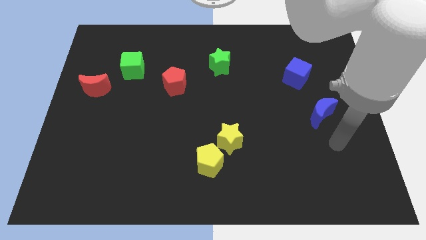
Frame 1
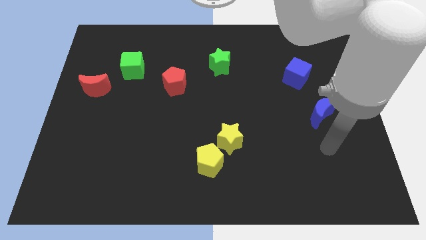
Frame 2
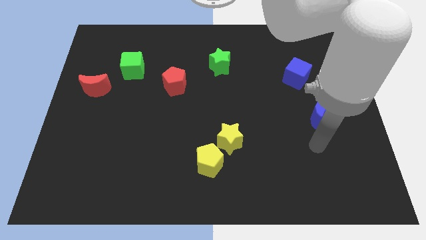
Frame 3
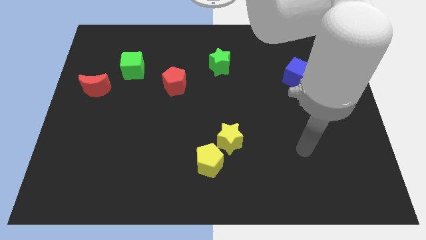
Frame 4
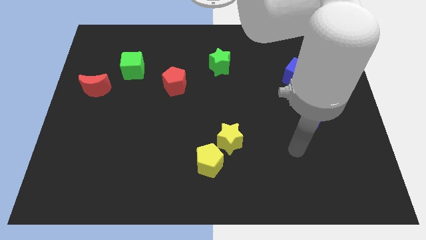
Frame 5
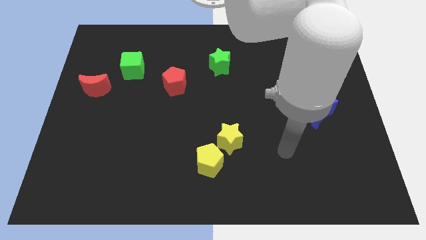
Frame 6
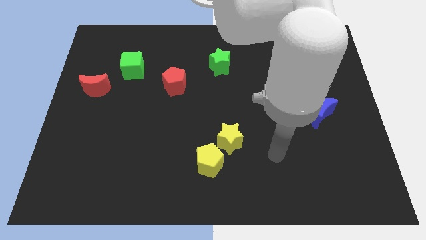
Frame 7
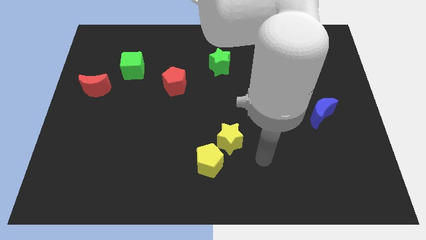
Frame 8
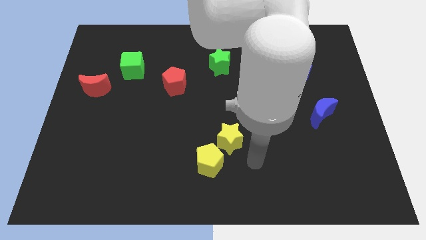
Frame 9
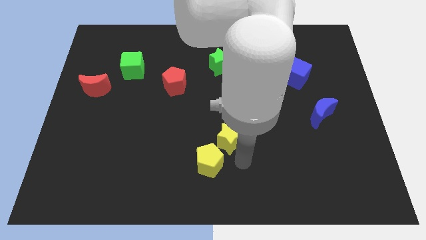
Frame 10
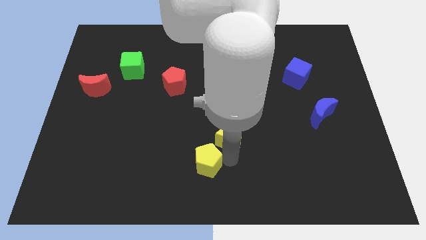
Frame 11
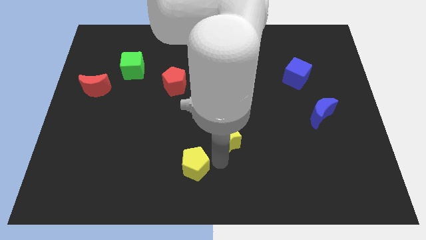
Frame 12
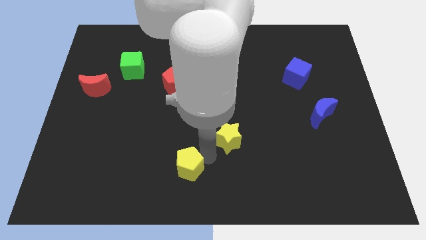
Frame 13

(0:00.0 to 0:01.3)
pull the yellow star apart from the yellow pentagon

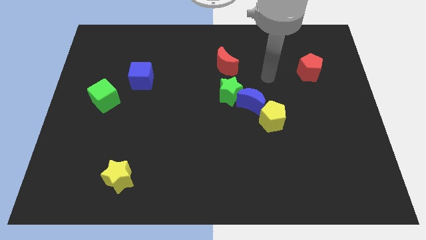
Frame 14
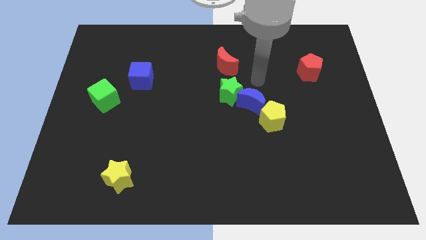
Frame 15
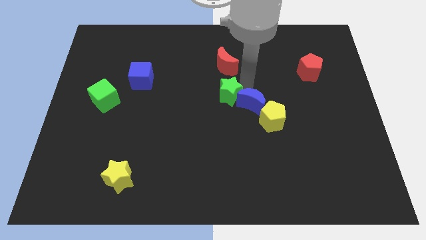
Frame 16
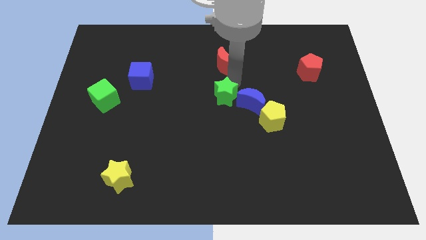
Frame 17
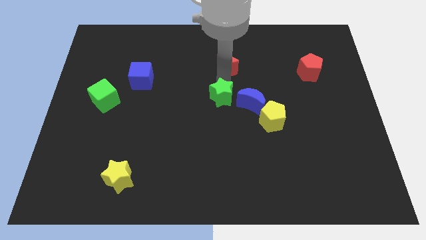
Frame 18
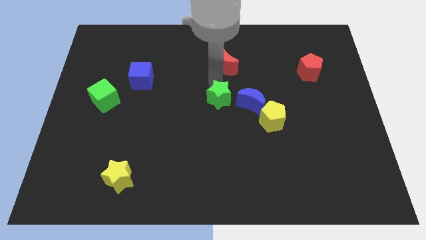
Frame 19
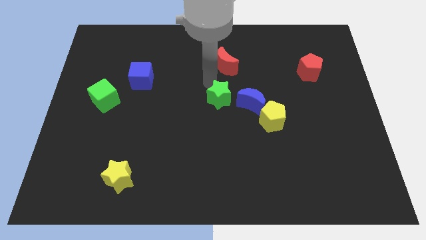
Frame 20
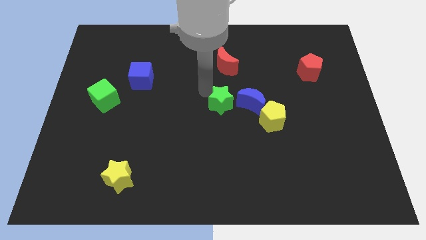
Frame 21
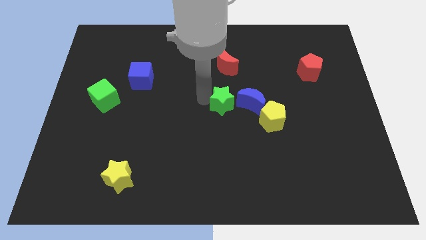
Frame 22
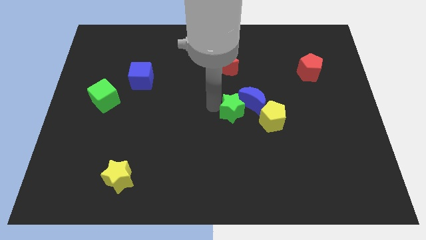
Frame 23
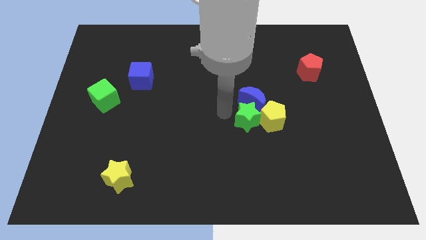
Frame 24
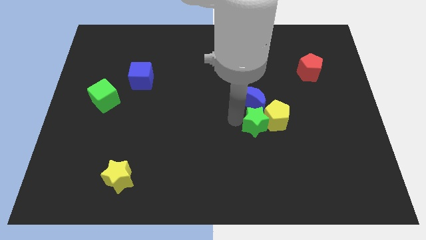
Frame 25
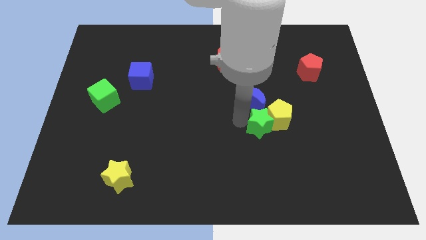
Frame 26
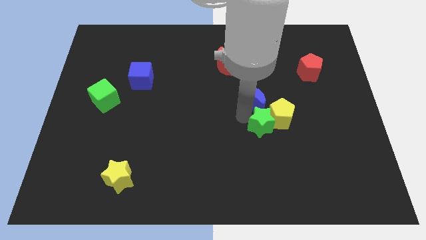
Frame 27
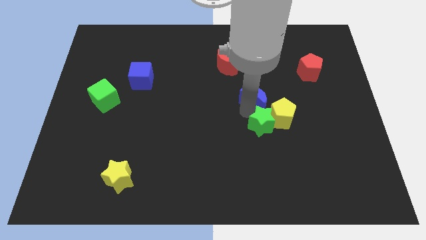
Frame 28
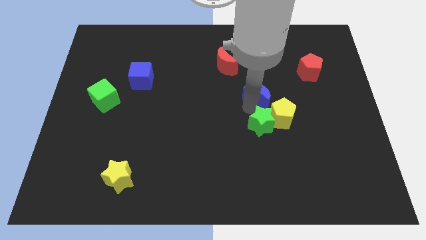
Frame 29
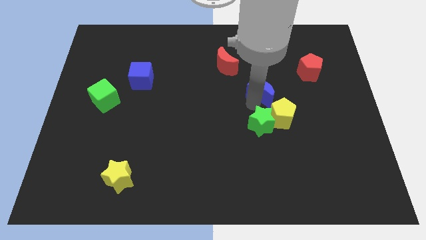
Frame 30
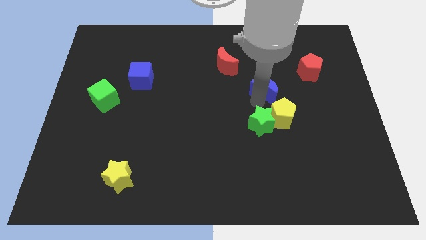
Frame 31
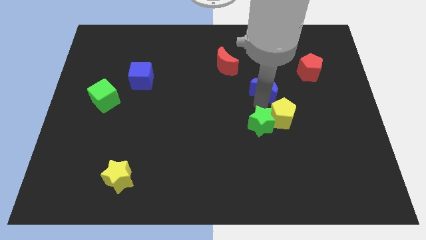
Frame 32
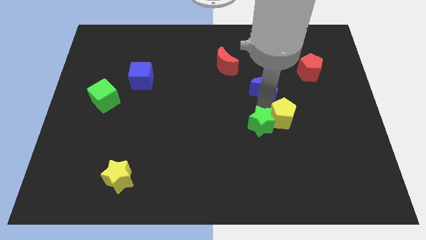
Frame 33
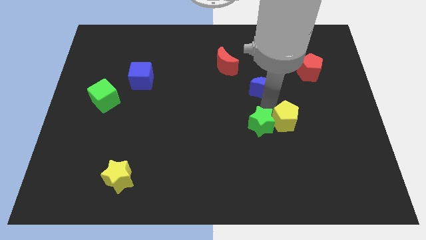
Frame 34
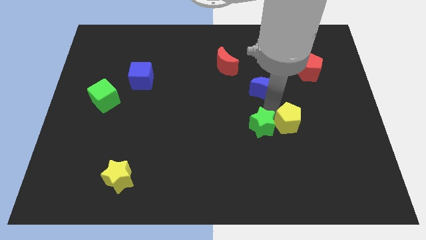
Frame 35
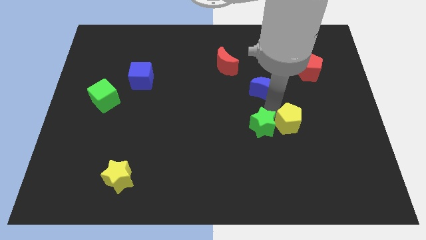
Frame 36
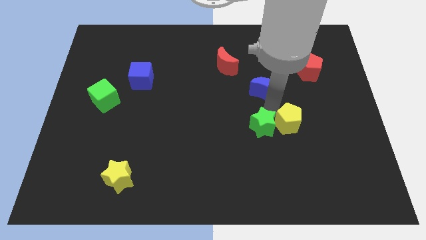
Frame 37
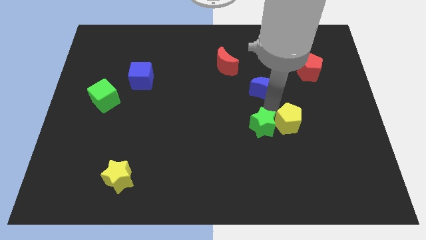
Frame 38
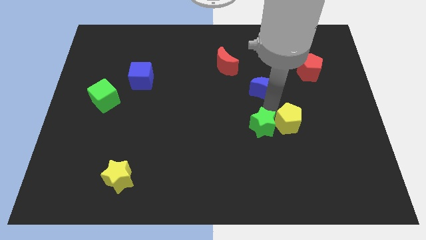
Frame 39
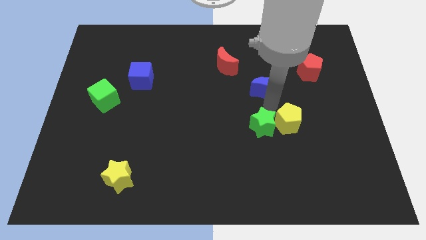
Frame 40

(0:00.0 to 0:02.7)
move the blue moon away from the green star and yellow pentagon

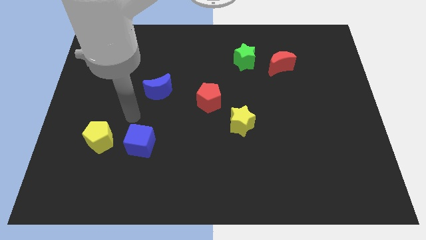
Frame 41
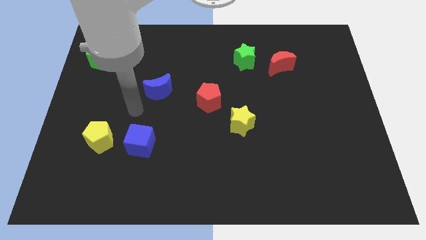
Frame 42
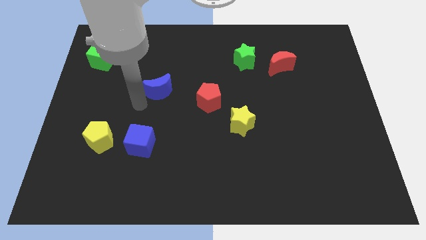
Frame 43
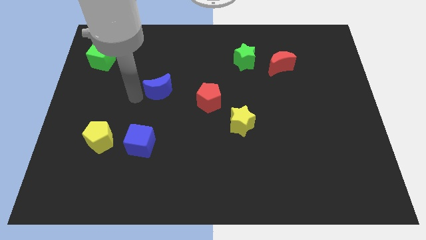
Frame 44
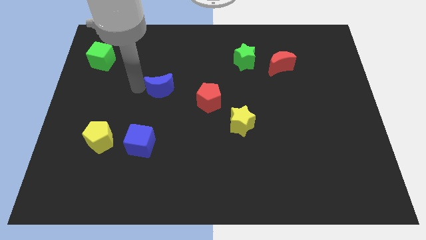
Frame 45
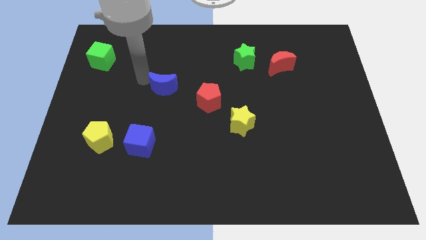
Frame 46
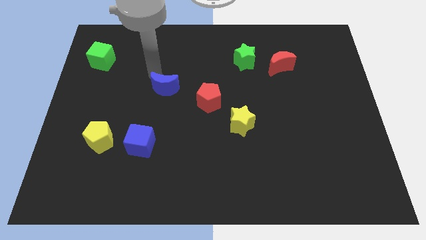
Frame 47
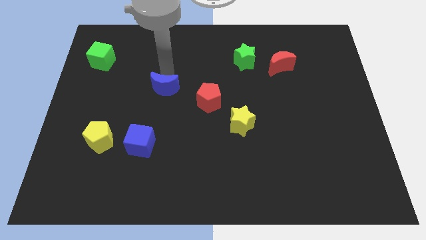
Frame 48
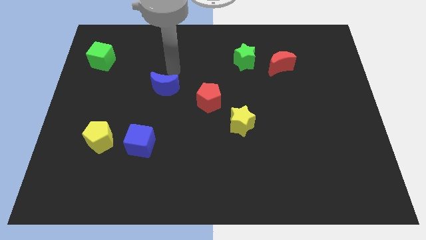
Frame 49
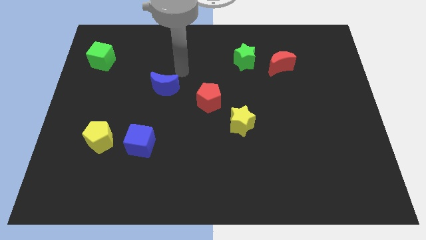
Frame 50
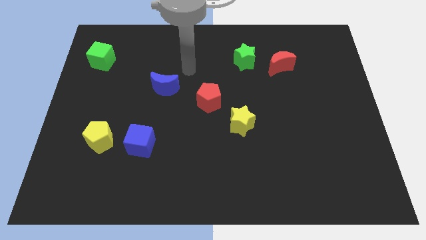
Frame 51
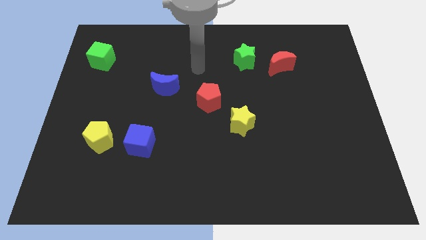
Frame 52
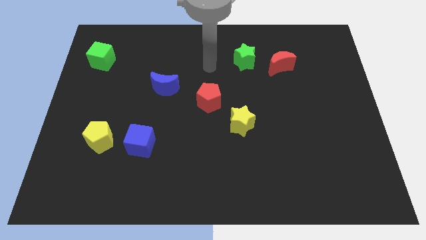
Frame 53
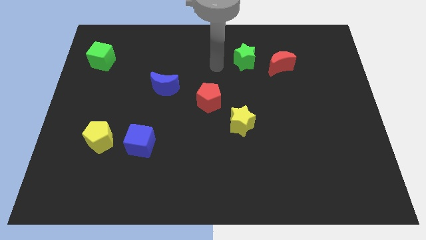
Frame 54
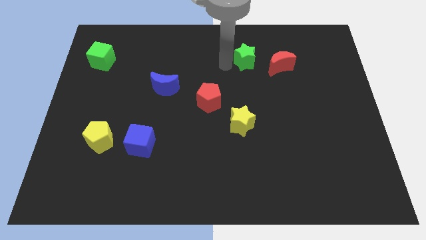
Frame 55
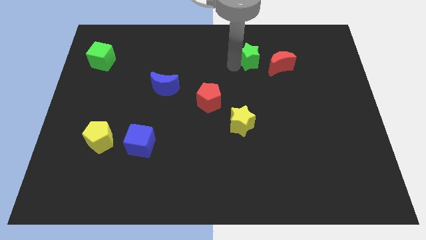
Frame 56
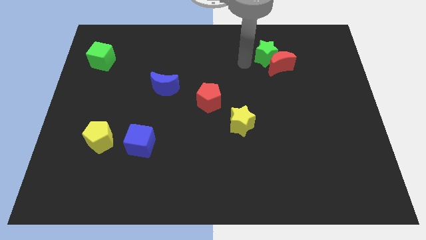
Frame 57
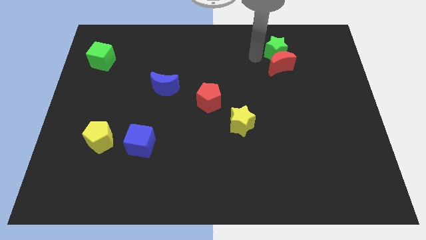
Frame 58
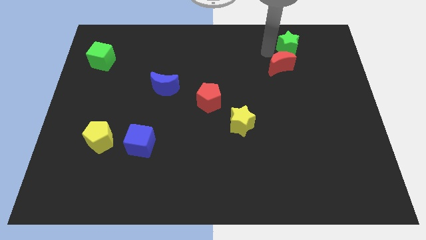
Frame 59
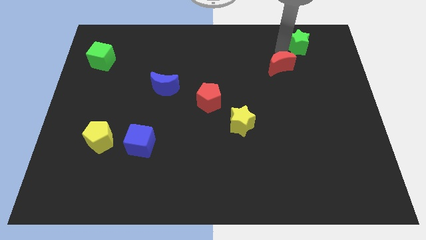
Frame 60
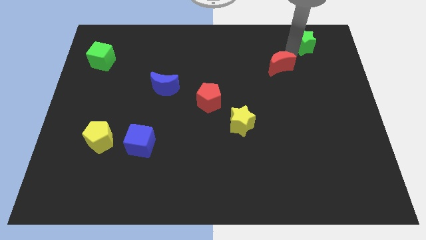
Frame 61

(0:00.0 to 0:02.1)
move the red moon away from the green star

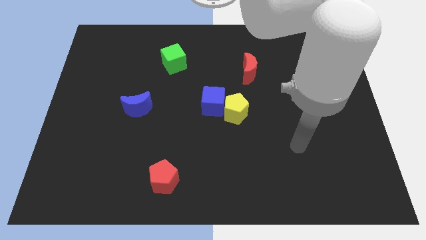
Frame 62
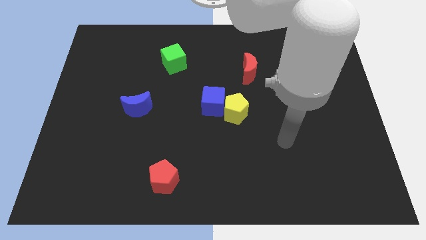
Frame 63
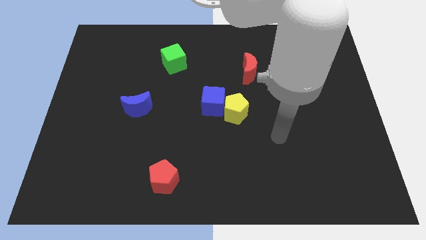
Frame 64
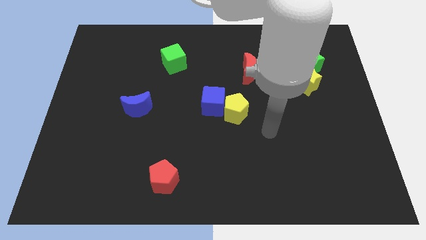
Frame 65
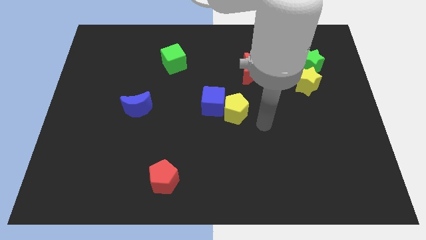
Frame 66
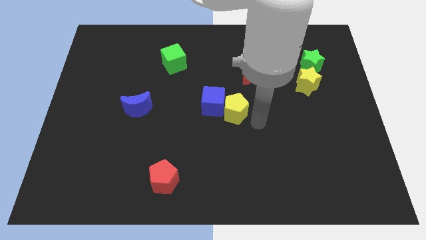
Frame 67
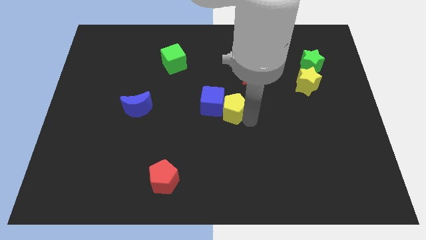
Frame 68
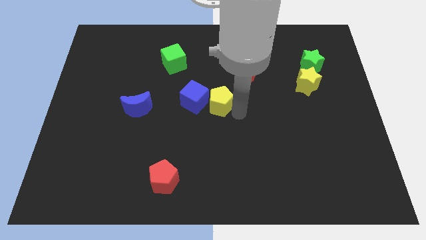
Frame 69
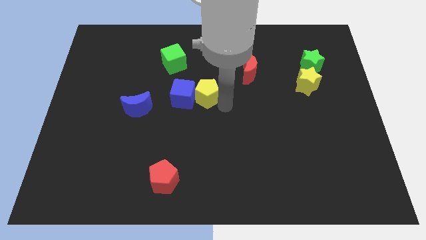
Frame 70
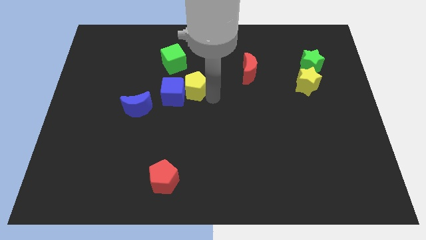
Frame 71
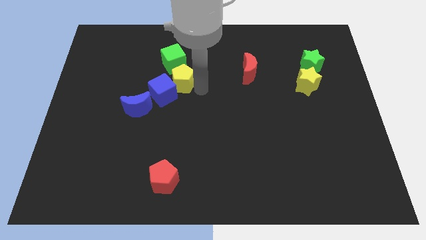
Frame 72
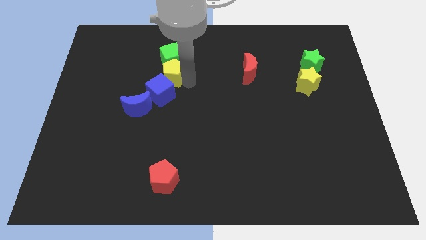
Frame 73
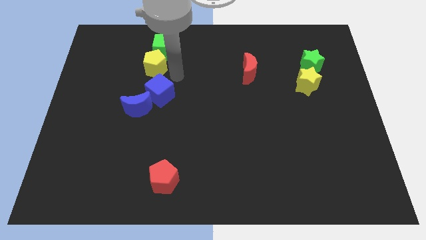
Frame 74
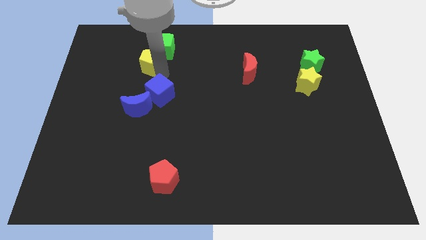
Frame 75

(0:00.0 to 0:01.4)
pull the blue cube apart from the yellow pentagon

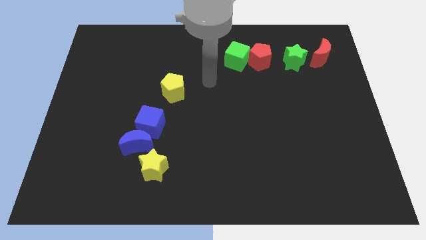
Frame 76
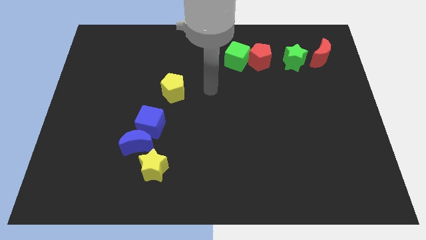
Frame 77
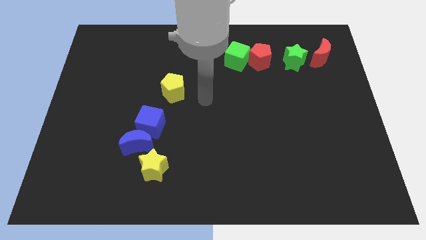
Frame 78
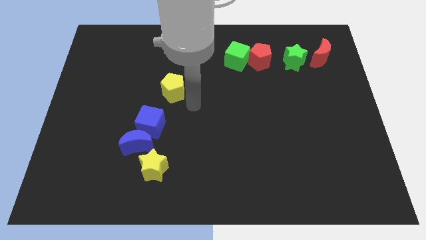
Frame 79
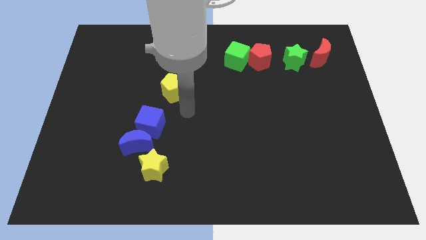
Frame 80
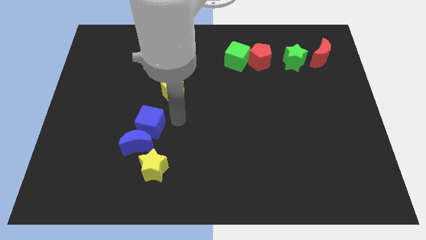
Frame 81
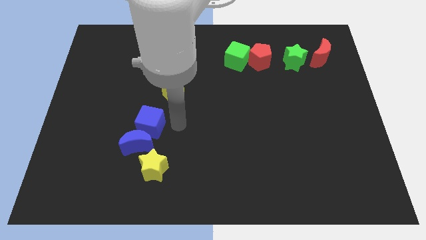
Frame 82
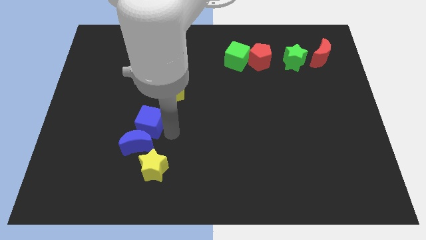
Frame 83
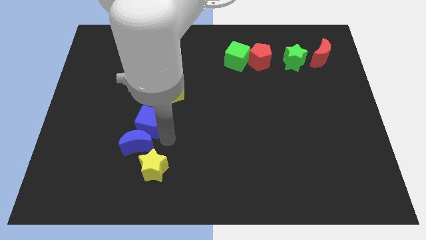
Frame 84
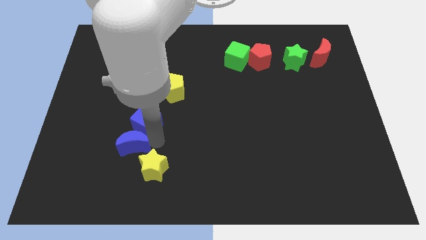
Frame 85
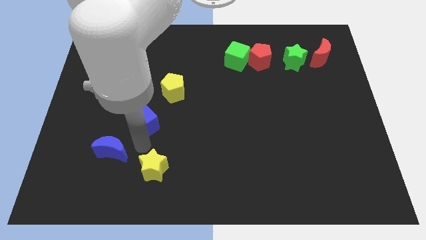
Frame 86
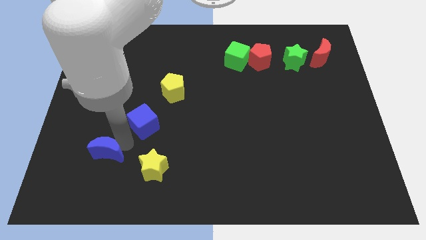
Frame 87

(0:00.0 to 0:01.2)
move the blue cube away from the blue moon

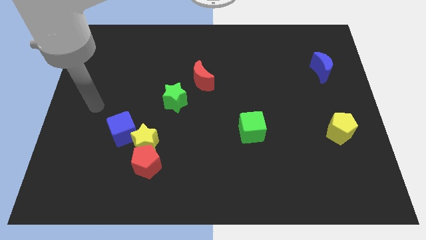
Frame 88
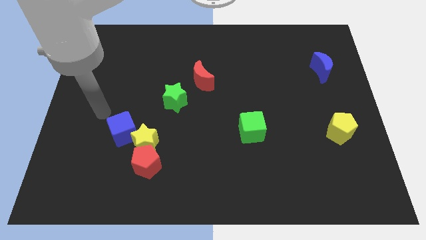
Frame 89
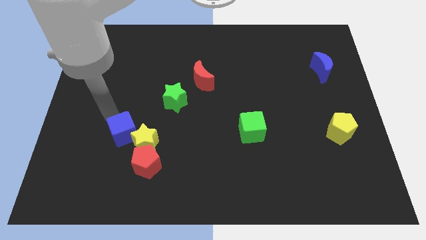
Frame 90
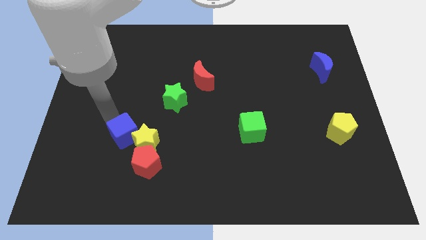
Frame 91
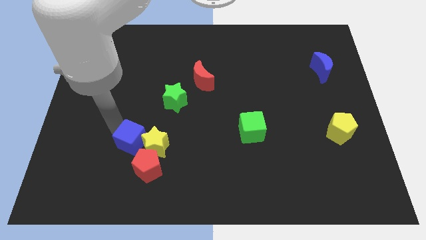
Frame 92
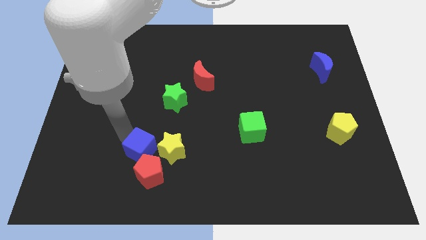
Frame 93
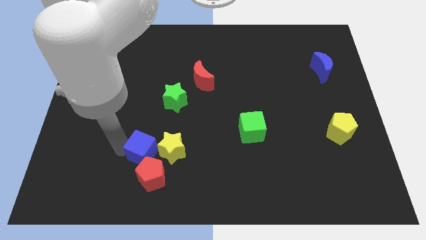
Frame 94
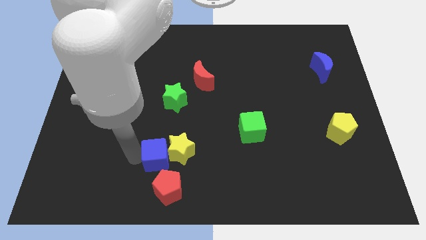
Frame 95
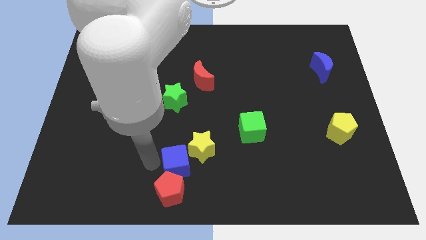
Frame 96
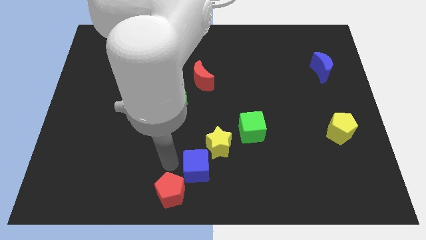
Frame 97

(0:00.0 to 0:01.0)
move the yellow star away from the red pentagon and blue cube
